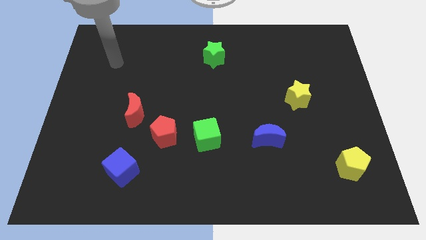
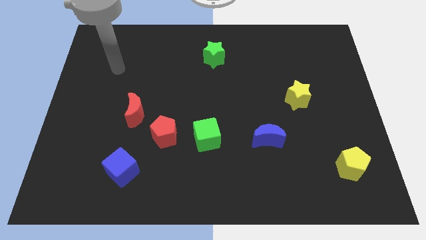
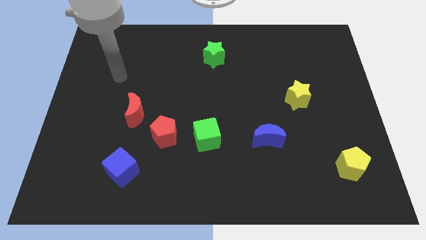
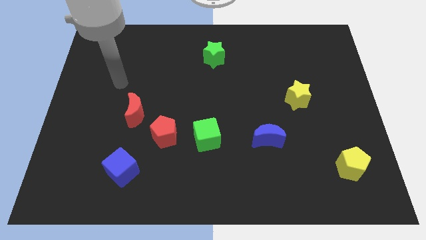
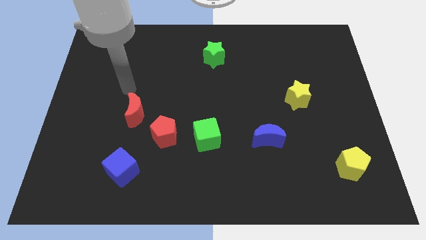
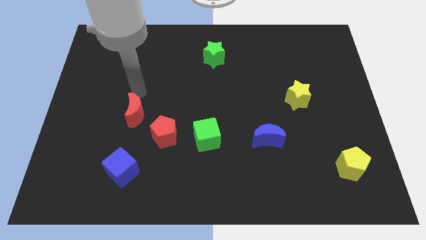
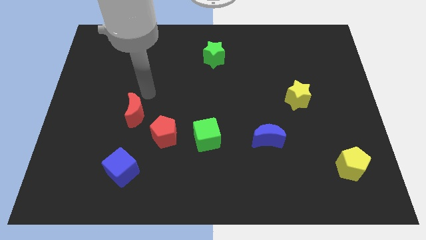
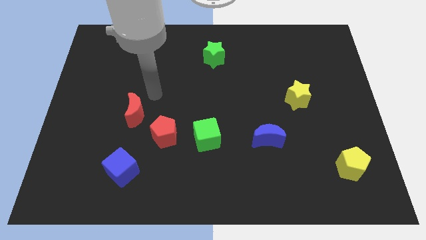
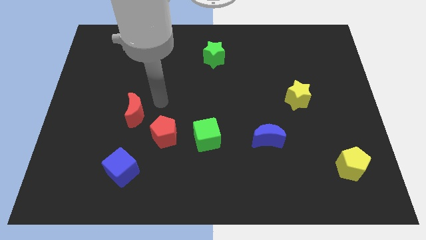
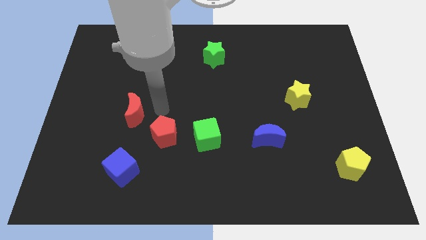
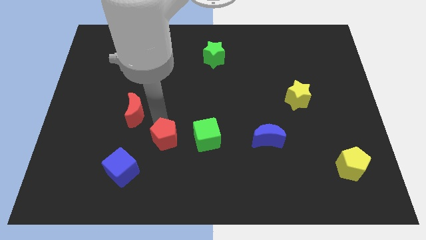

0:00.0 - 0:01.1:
separate the red moon from the red pentagon

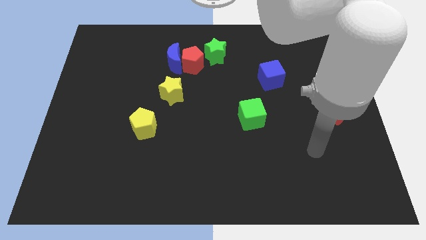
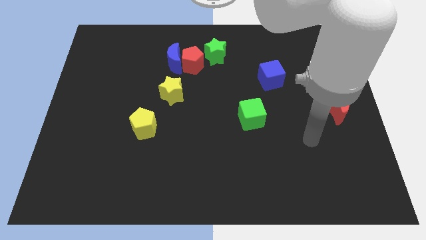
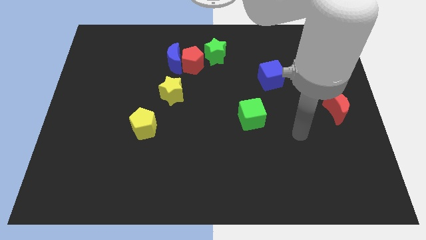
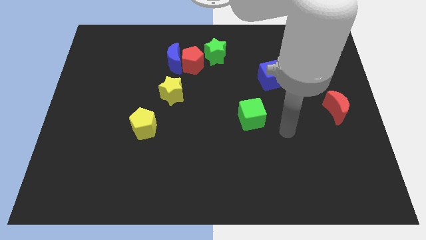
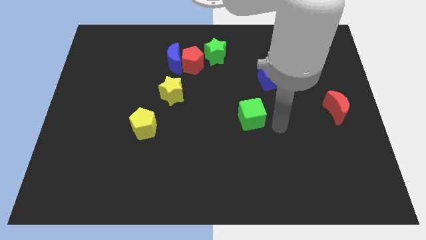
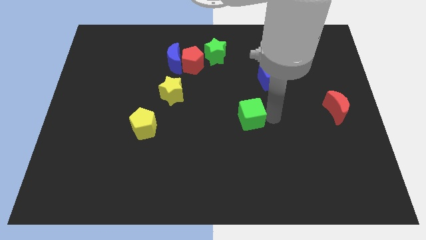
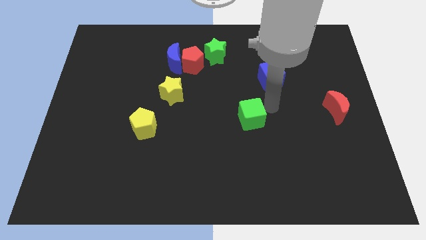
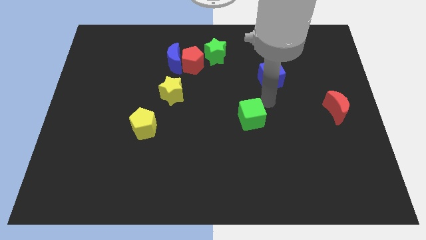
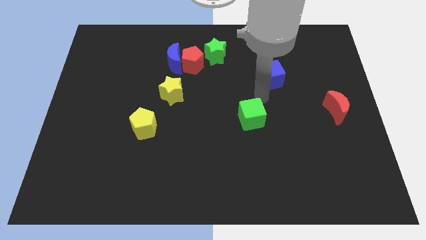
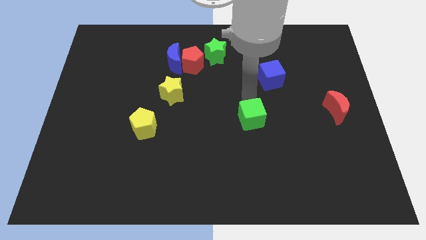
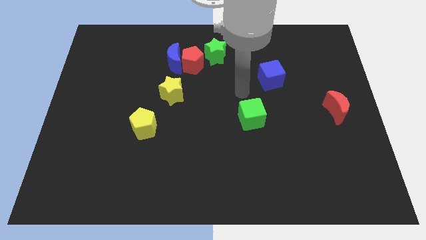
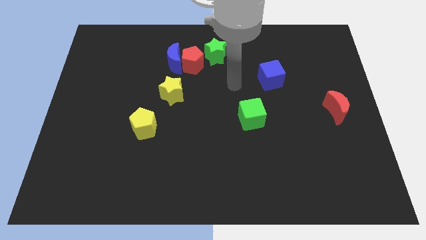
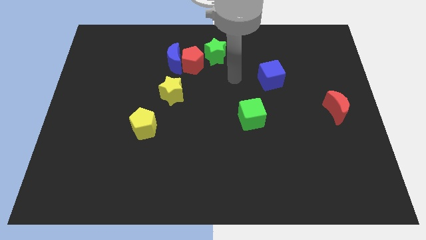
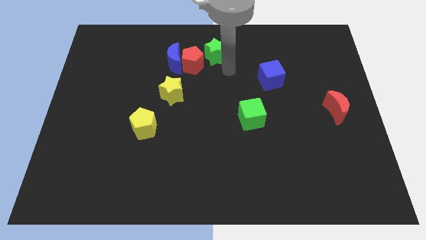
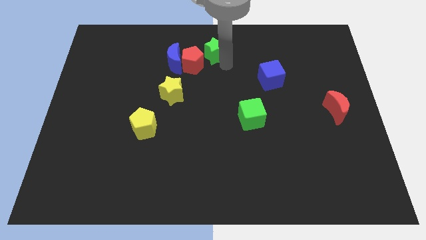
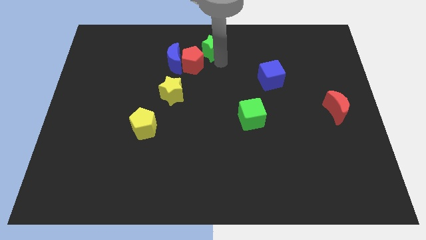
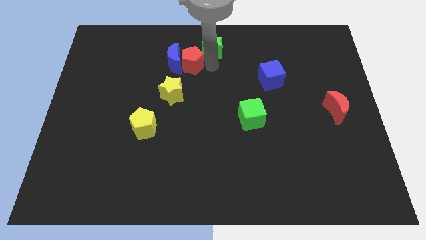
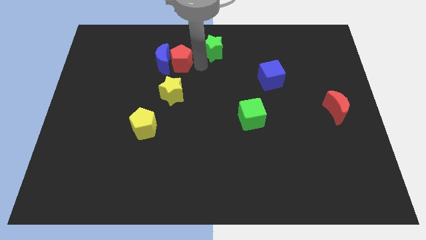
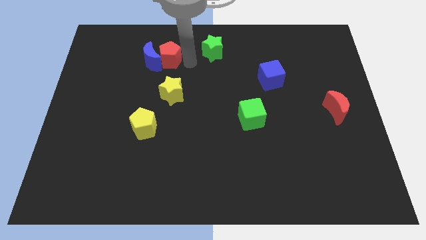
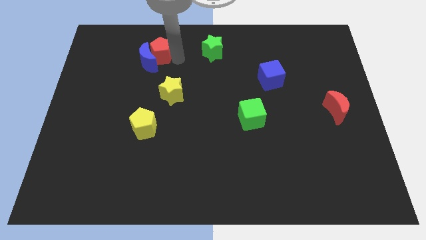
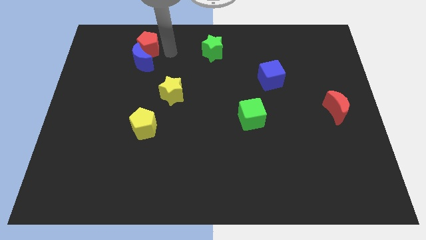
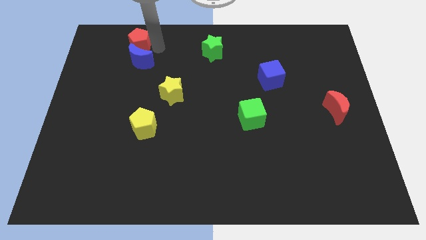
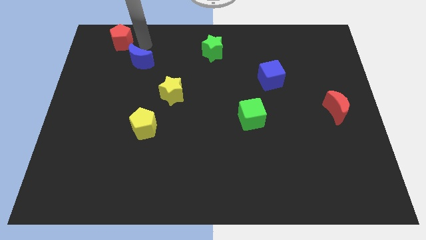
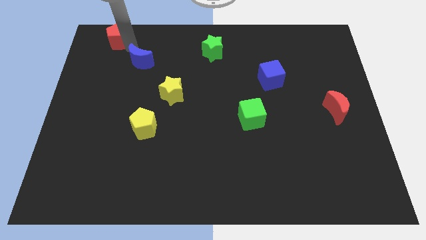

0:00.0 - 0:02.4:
move the blue moon away from the red pentagon

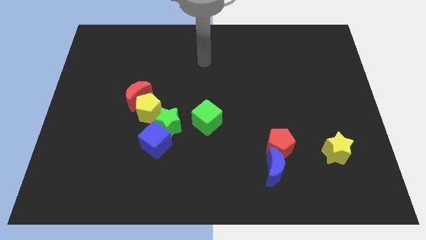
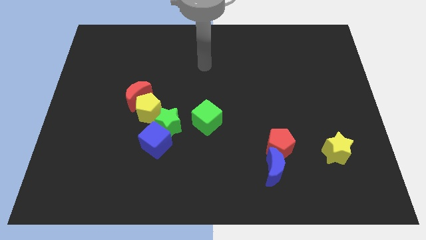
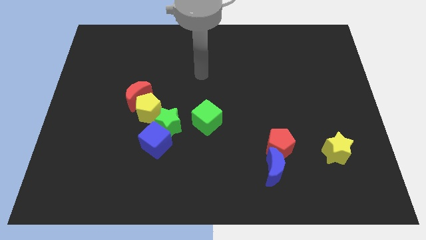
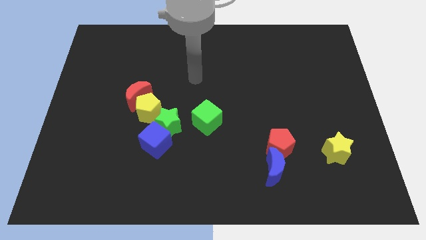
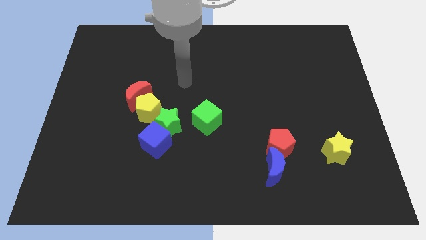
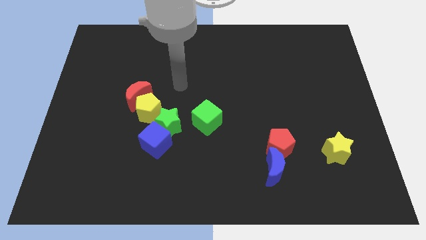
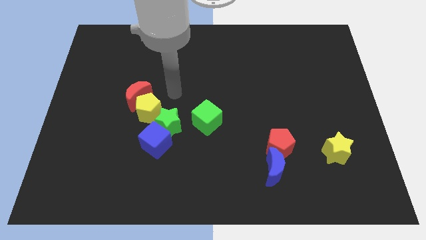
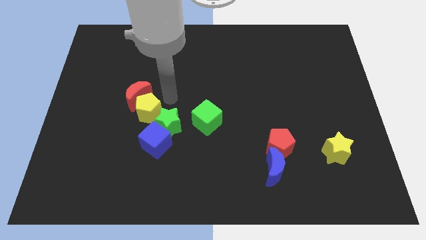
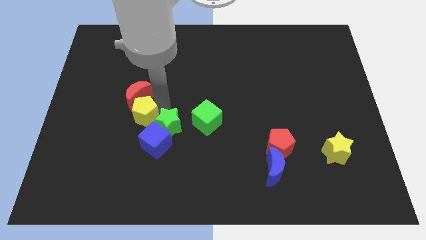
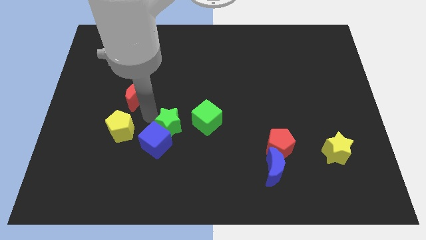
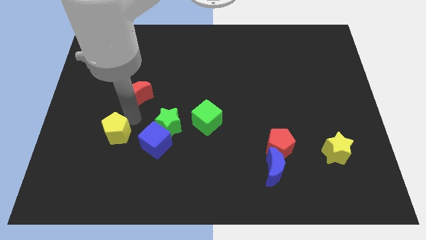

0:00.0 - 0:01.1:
separate the red moon from the yellow pentagon

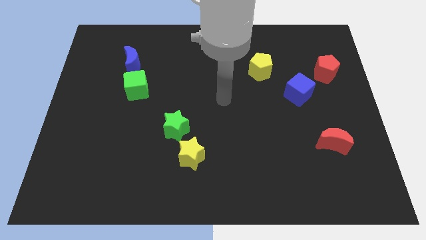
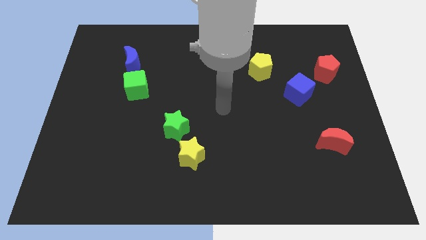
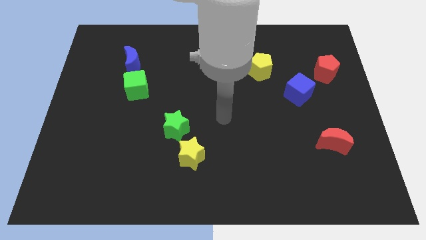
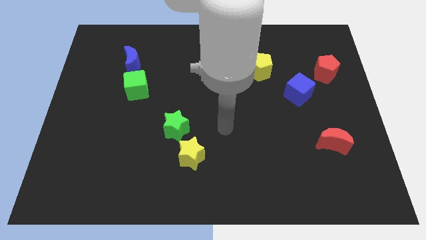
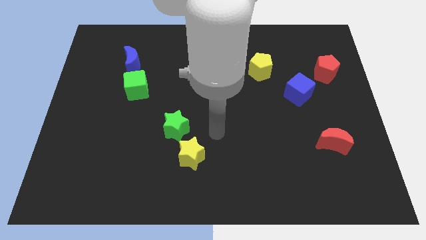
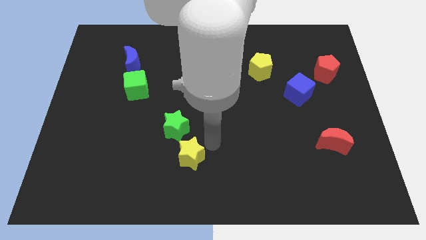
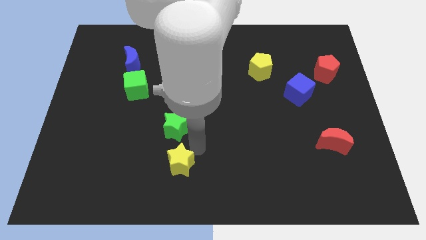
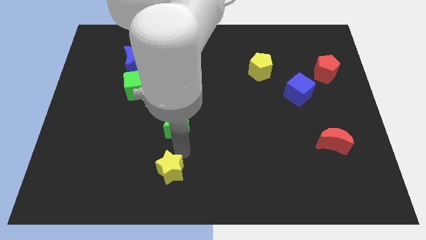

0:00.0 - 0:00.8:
pull the green star apart from the yellow star

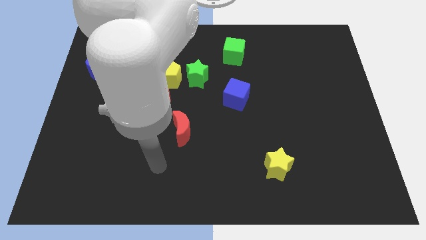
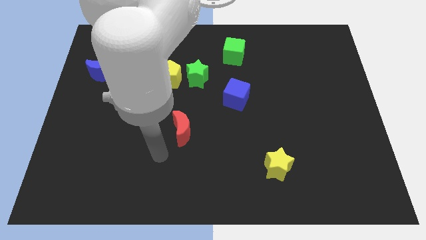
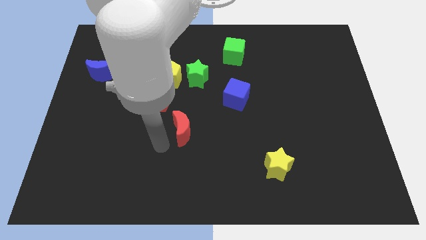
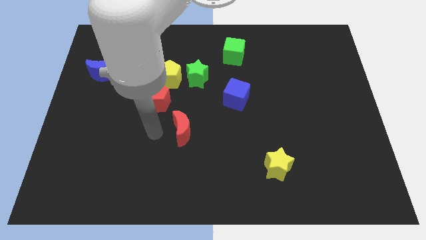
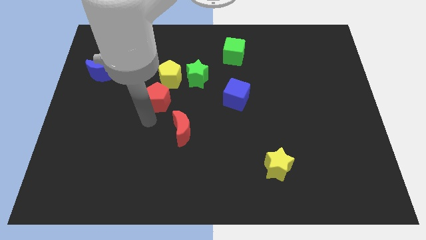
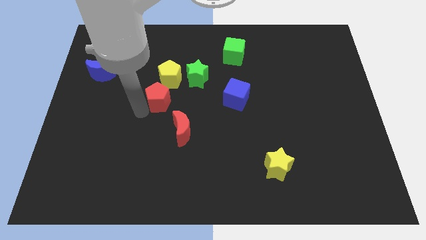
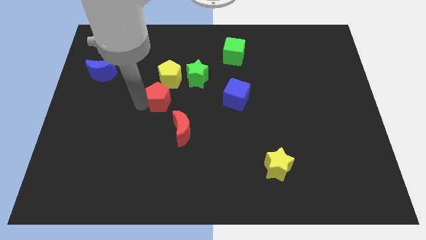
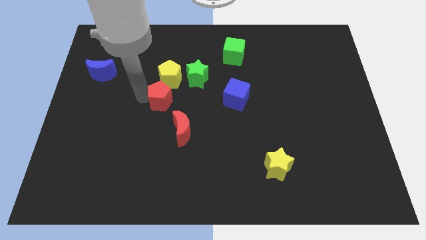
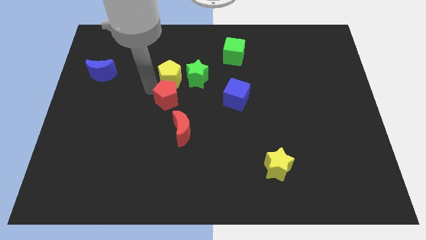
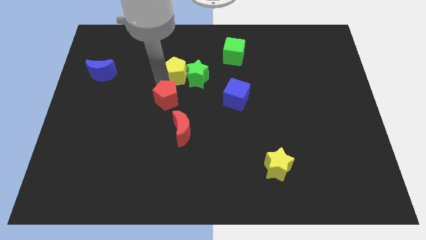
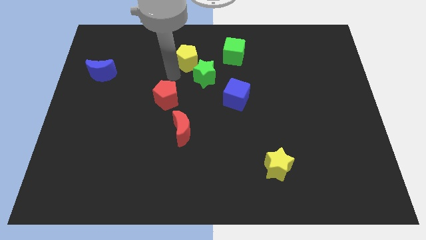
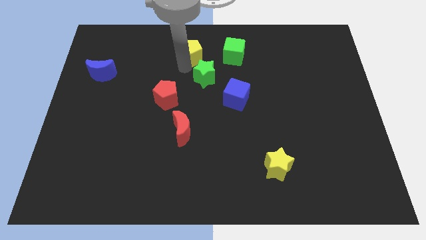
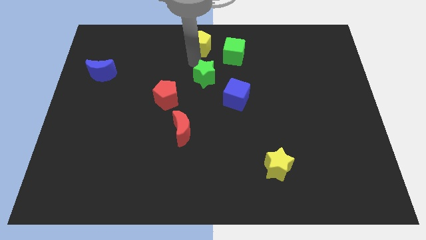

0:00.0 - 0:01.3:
move the green star away from the yellow pentagon

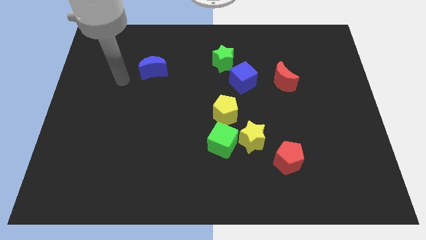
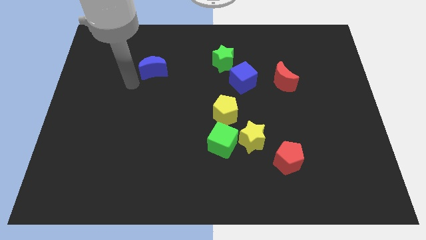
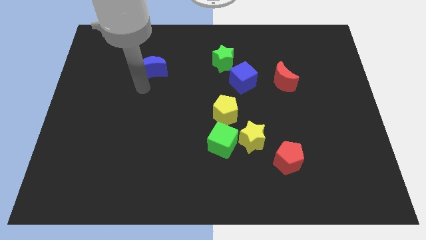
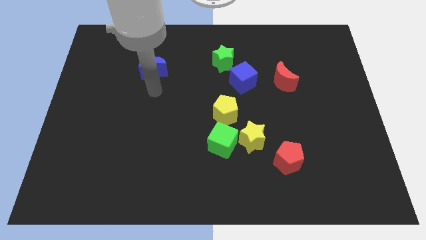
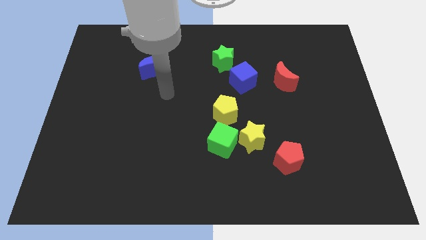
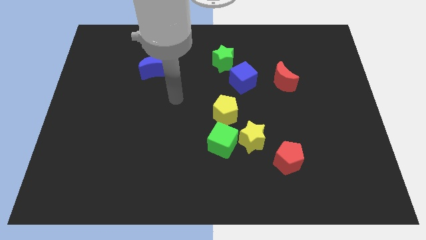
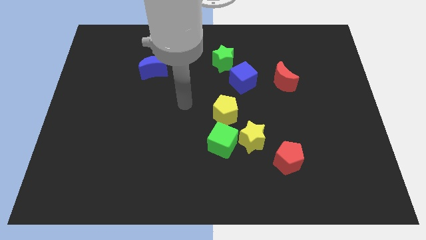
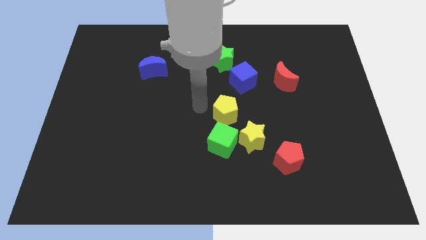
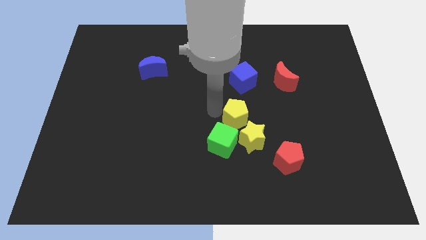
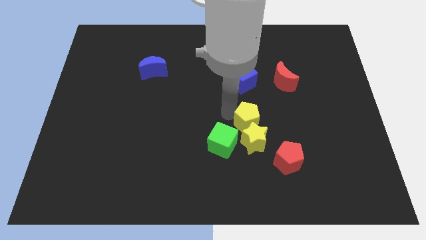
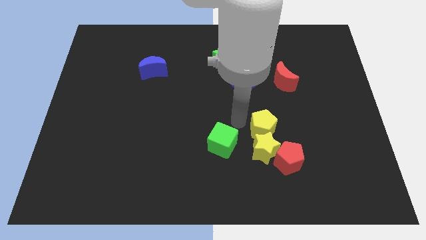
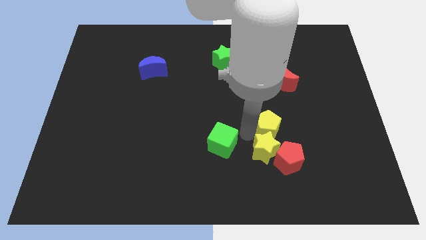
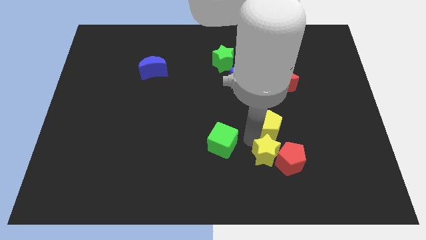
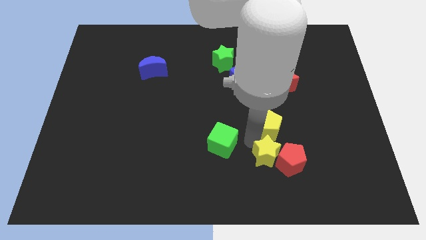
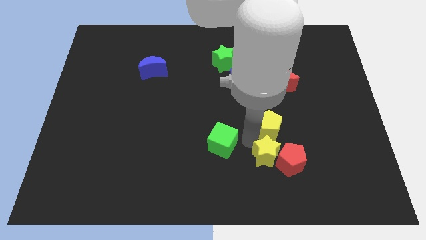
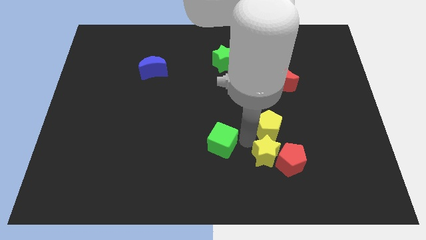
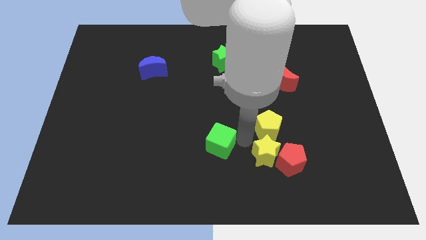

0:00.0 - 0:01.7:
separate the green cube from the yellow star and yellow pentagon

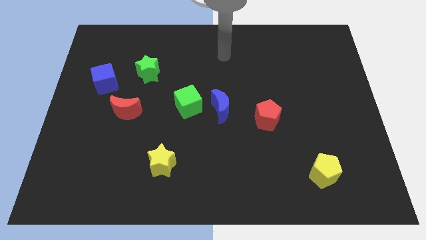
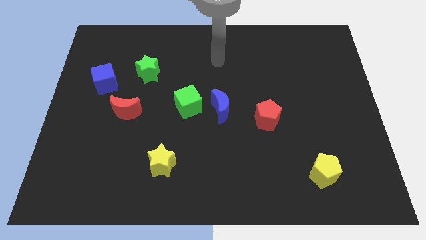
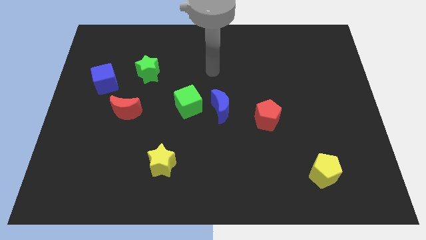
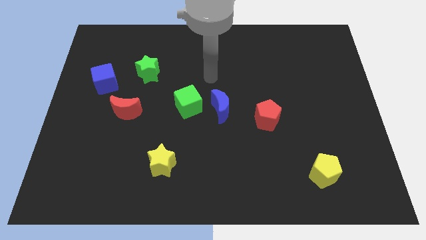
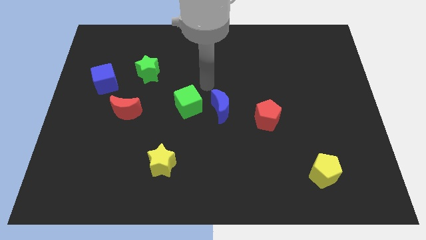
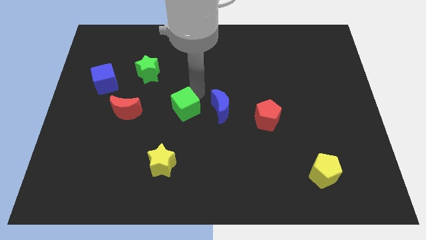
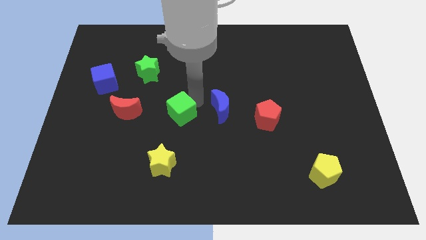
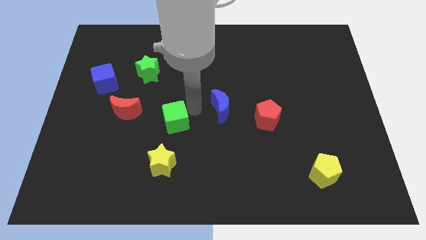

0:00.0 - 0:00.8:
pull the blue moon apart from the green cube

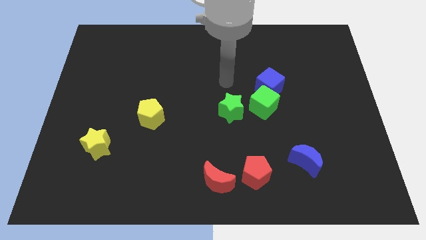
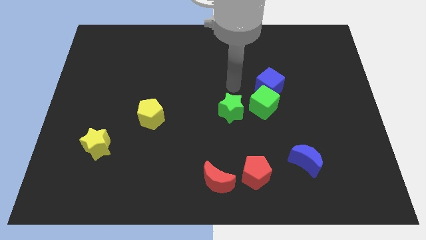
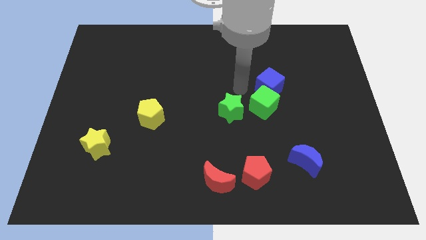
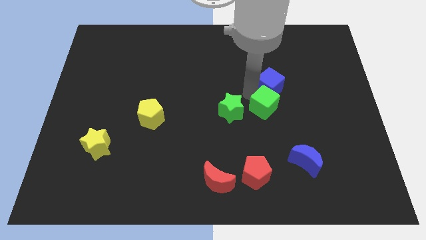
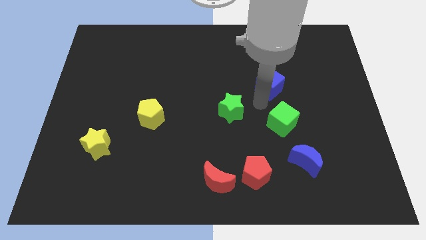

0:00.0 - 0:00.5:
pull the blue cube apart from the green cube
